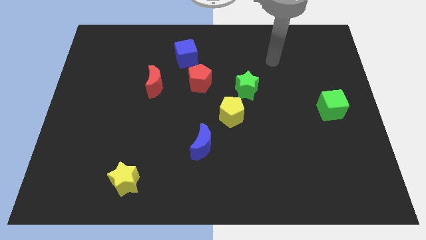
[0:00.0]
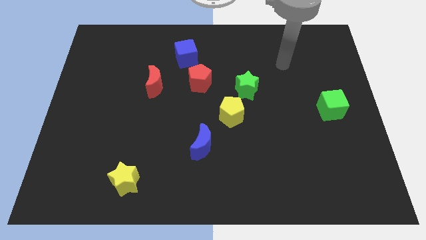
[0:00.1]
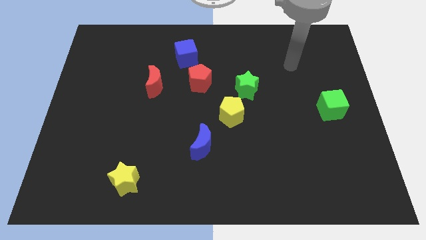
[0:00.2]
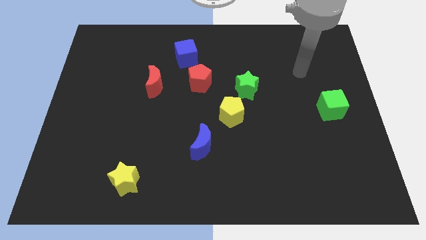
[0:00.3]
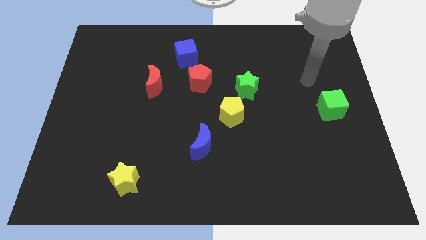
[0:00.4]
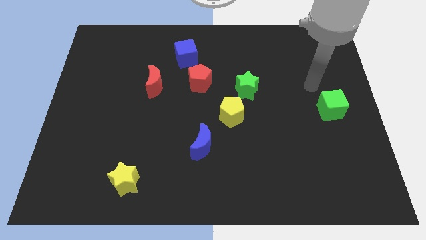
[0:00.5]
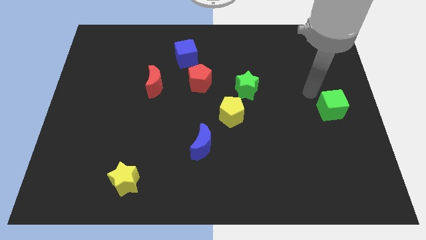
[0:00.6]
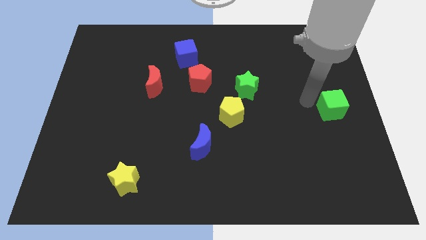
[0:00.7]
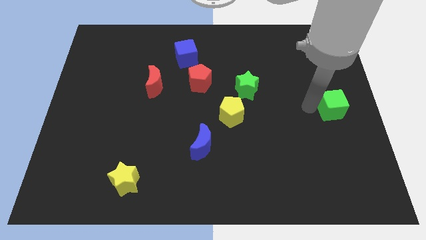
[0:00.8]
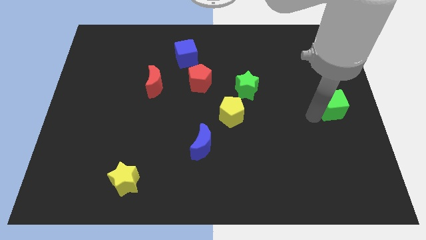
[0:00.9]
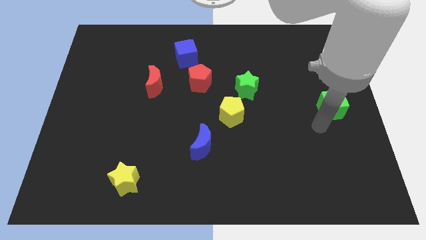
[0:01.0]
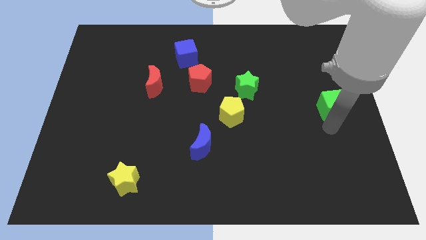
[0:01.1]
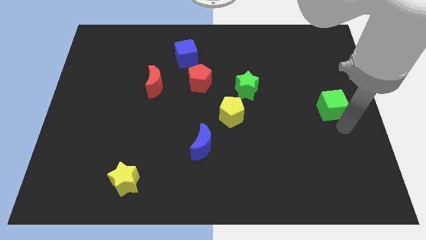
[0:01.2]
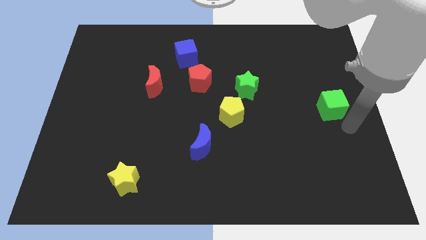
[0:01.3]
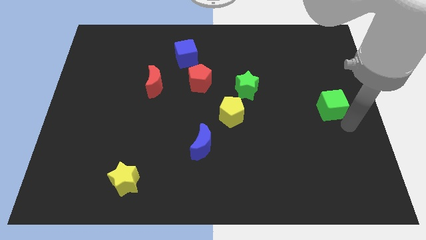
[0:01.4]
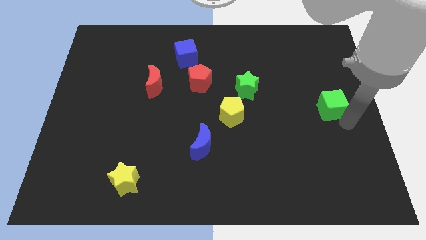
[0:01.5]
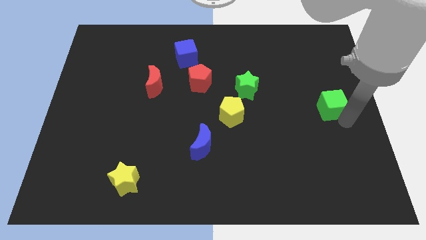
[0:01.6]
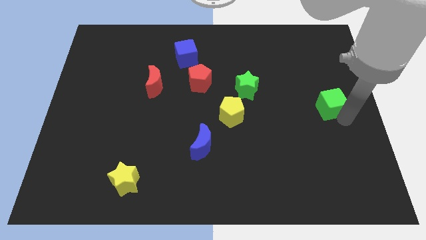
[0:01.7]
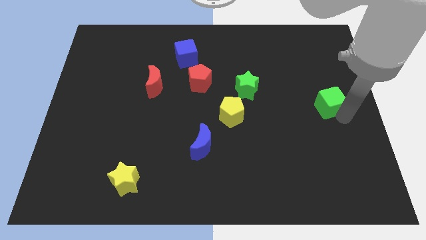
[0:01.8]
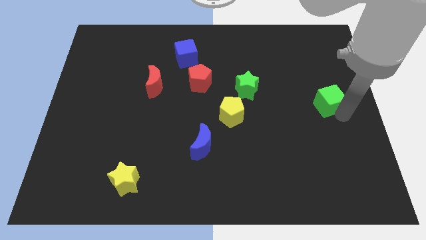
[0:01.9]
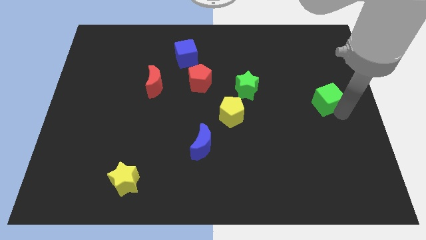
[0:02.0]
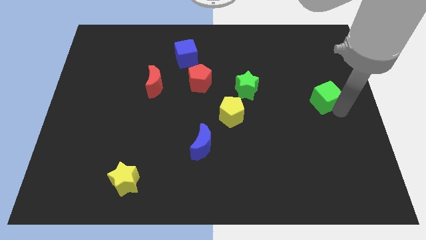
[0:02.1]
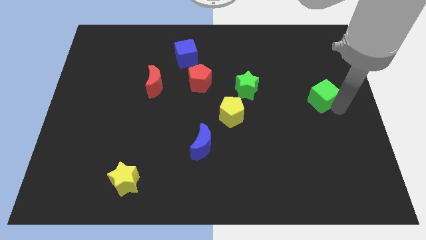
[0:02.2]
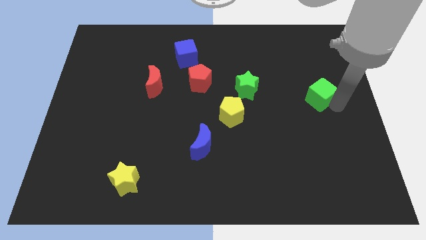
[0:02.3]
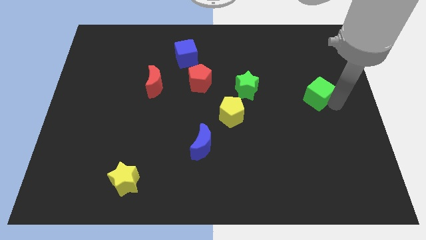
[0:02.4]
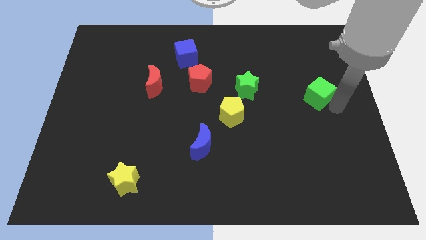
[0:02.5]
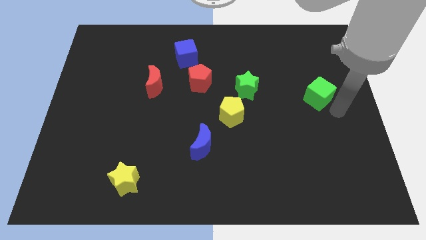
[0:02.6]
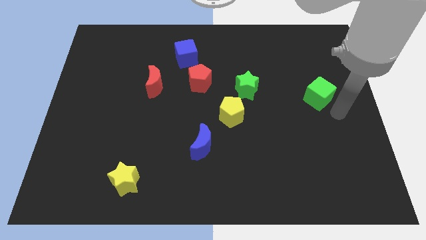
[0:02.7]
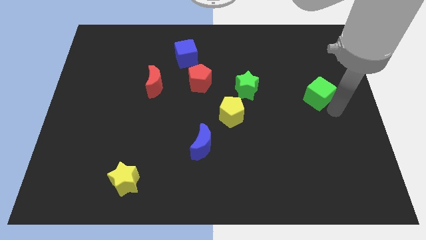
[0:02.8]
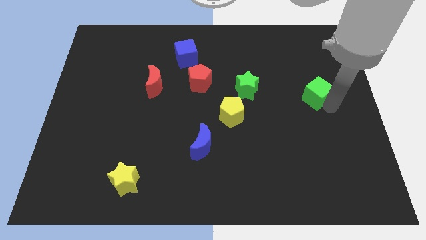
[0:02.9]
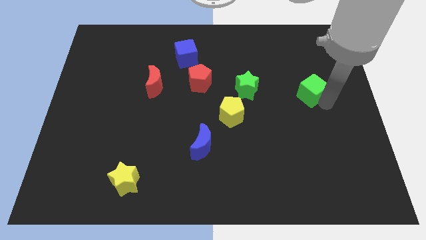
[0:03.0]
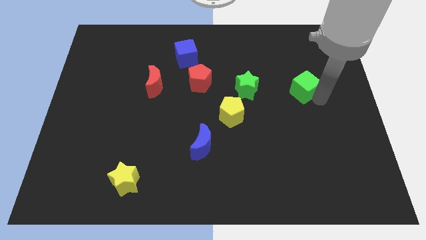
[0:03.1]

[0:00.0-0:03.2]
push the green cube up and then to the left a little

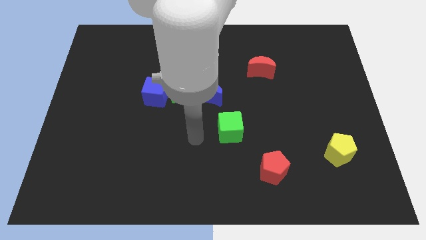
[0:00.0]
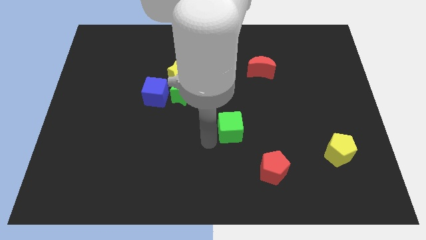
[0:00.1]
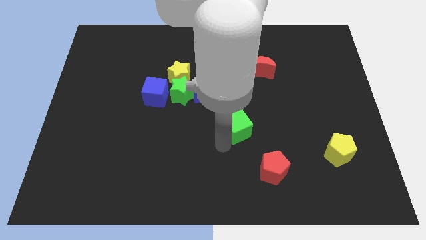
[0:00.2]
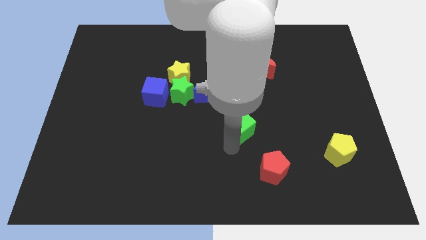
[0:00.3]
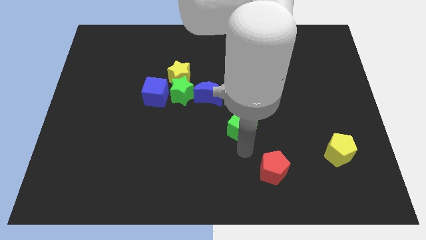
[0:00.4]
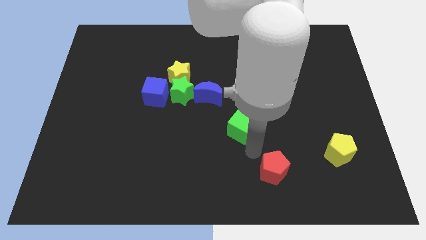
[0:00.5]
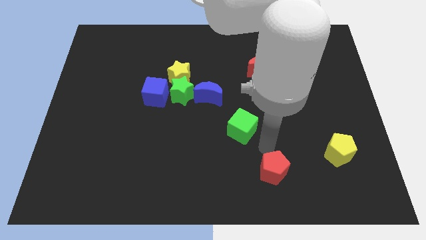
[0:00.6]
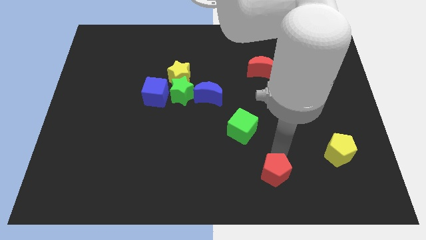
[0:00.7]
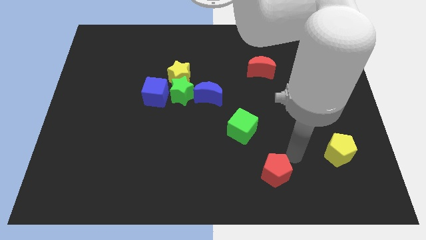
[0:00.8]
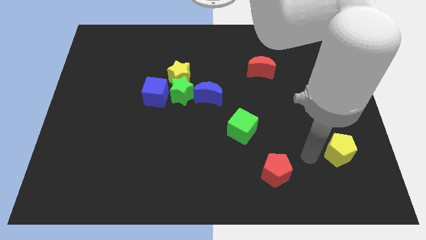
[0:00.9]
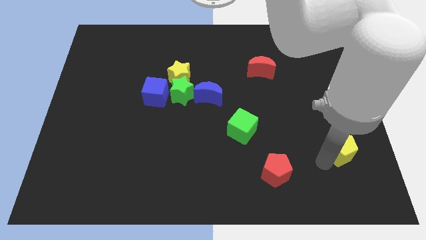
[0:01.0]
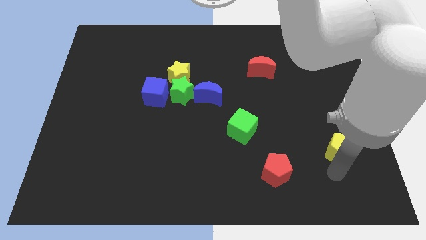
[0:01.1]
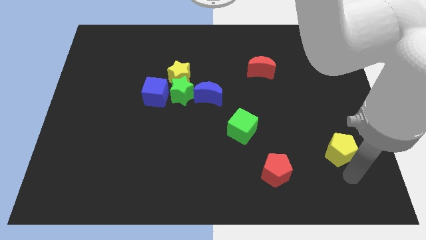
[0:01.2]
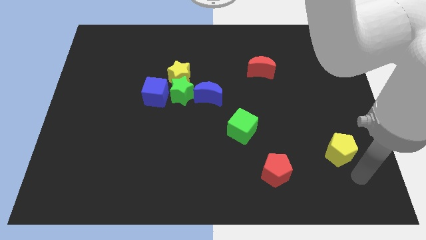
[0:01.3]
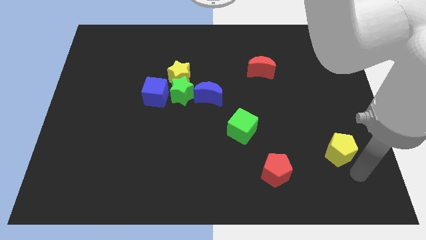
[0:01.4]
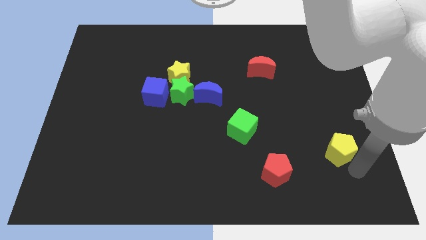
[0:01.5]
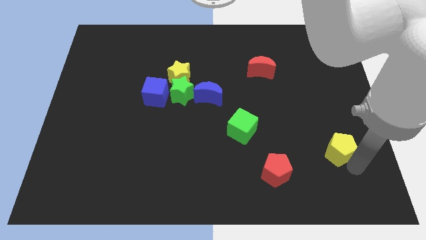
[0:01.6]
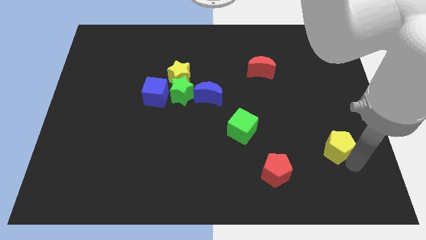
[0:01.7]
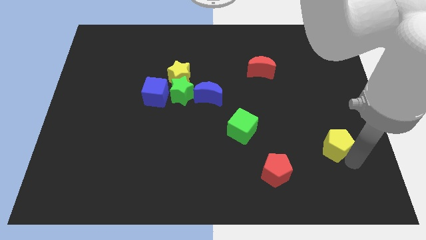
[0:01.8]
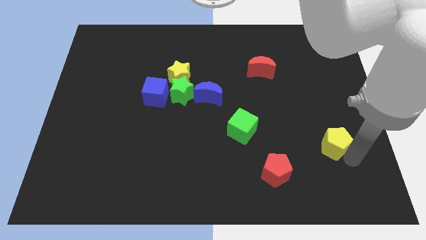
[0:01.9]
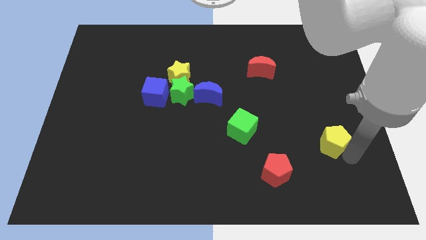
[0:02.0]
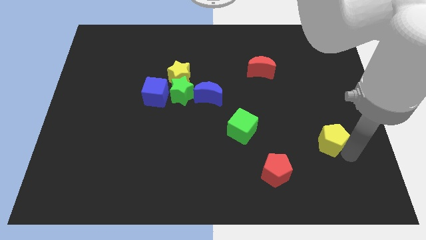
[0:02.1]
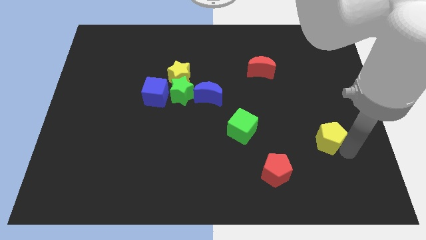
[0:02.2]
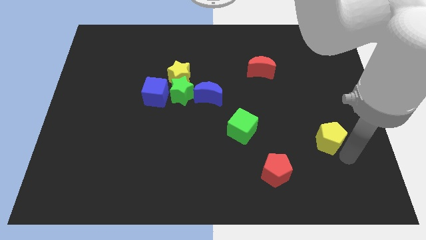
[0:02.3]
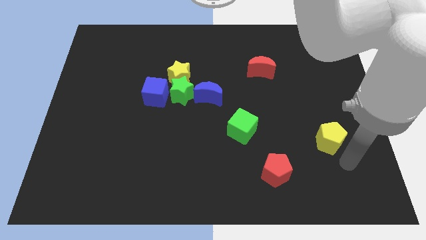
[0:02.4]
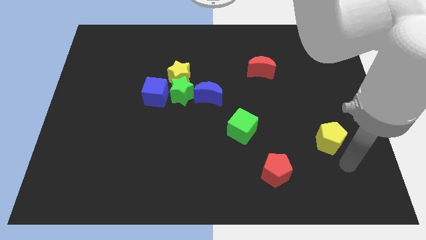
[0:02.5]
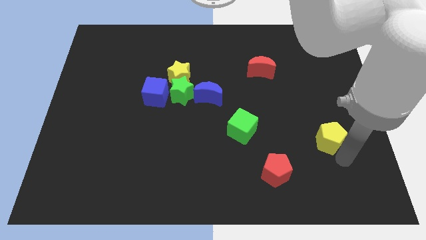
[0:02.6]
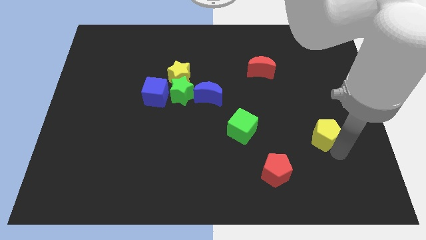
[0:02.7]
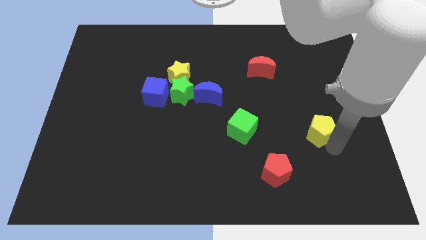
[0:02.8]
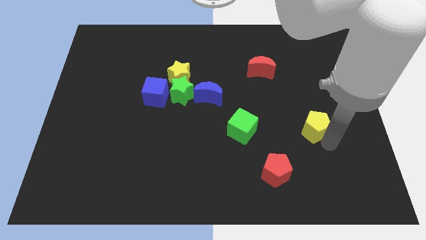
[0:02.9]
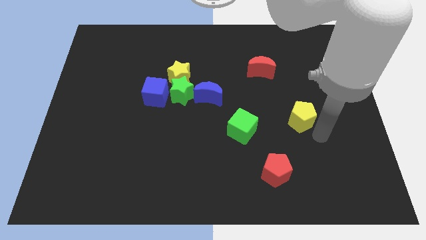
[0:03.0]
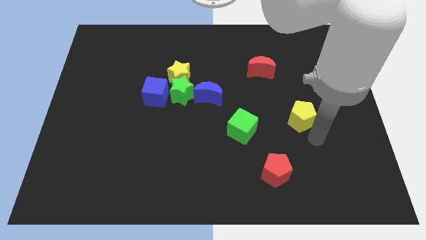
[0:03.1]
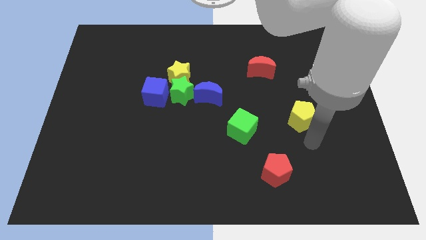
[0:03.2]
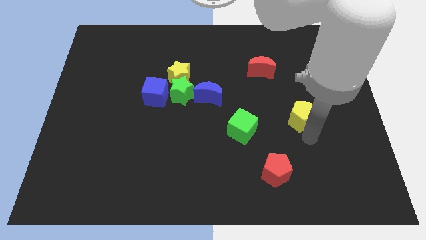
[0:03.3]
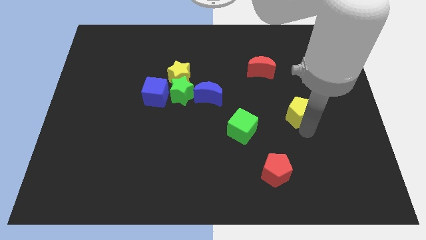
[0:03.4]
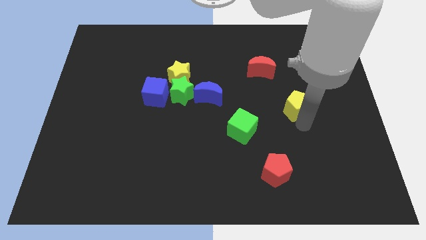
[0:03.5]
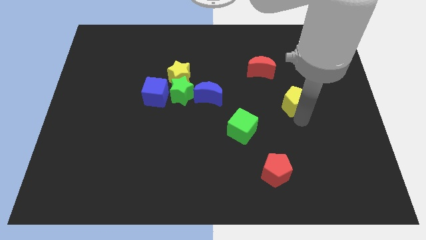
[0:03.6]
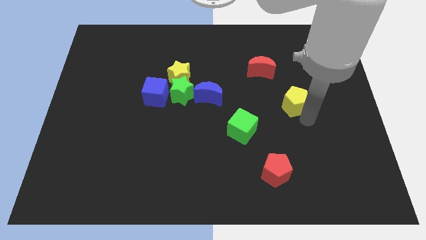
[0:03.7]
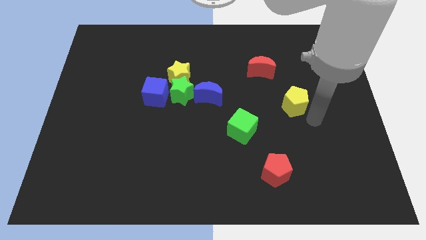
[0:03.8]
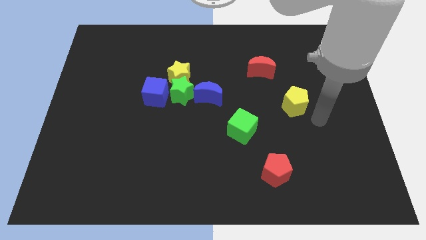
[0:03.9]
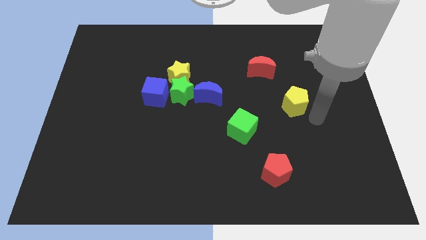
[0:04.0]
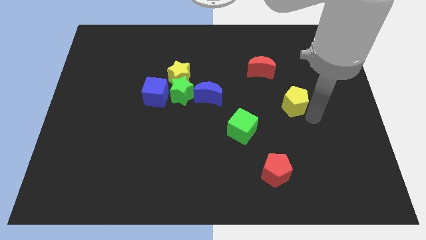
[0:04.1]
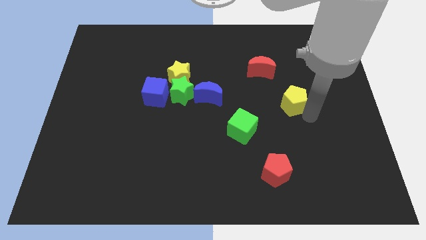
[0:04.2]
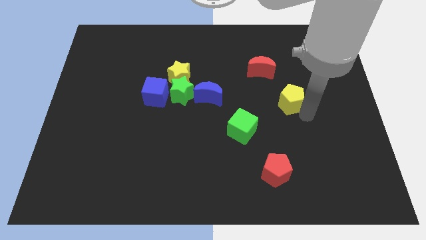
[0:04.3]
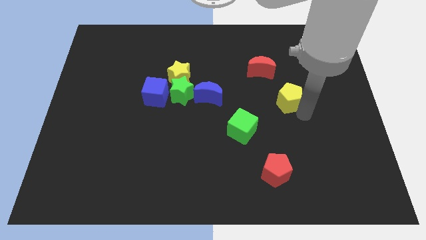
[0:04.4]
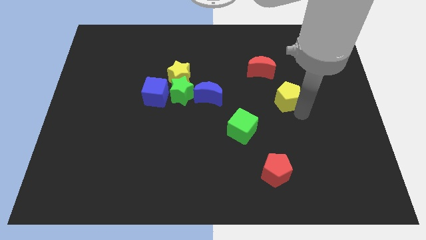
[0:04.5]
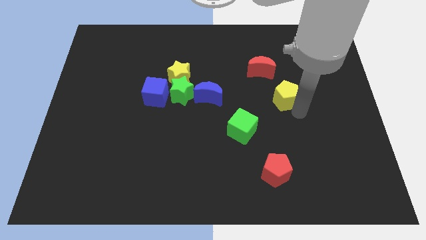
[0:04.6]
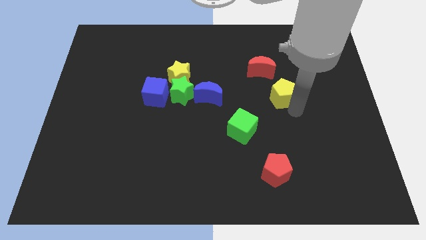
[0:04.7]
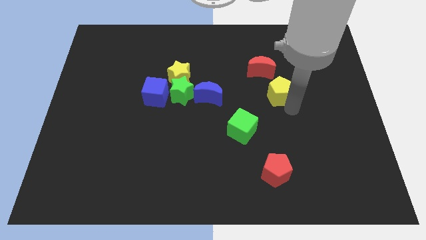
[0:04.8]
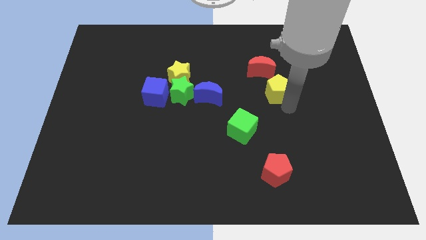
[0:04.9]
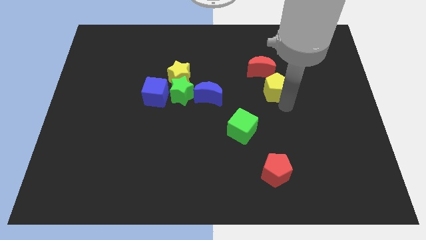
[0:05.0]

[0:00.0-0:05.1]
push the yellow pentagon upwards and then to the left
